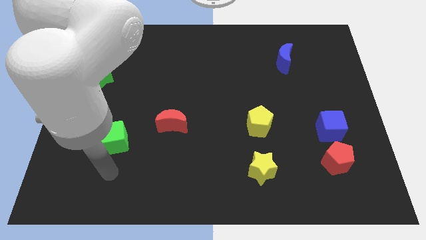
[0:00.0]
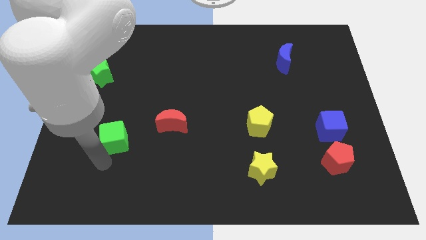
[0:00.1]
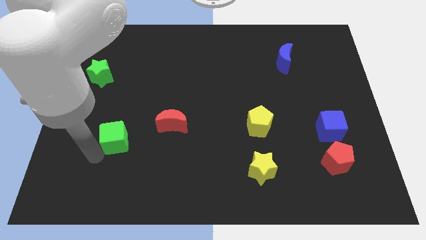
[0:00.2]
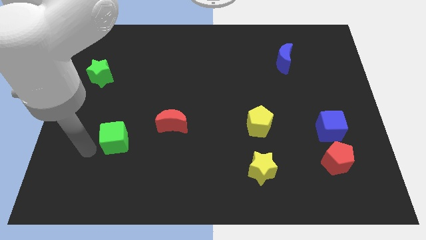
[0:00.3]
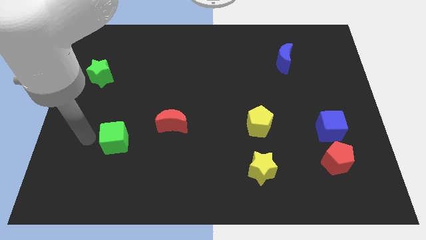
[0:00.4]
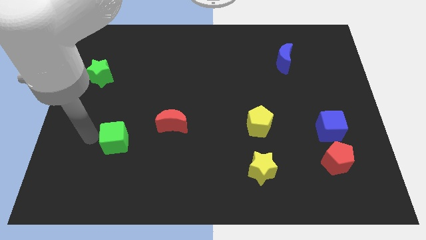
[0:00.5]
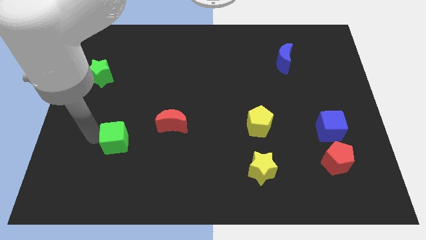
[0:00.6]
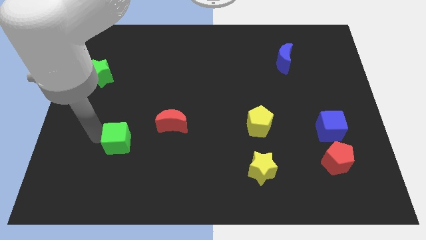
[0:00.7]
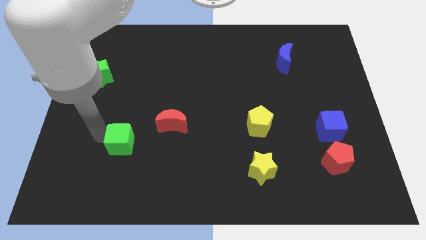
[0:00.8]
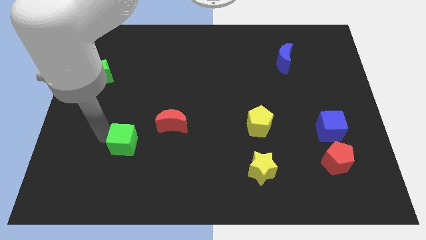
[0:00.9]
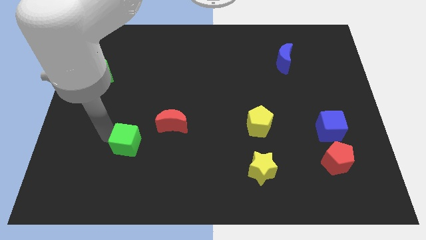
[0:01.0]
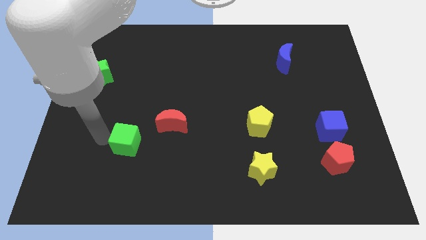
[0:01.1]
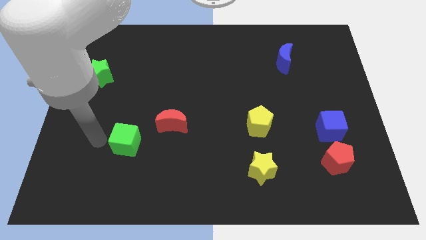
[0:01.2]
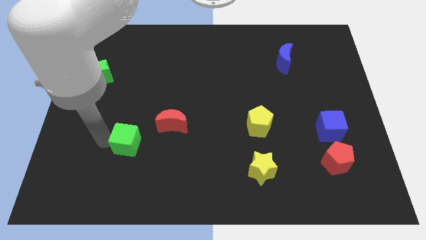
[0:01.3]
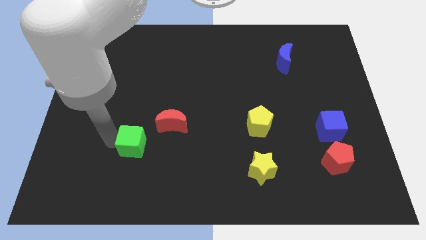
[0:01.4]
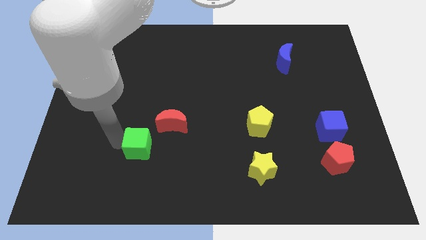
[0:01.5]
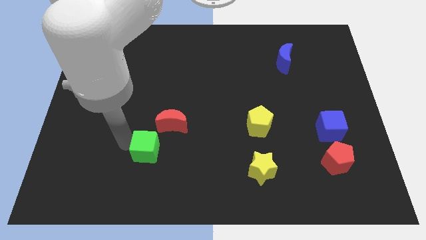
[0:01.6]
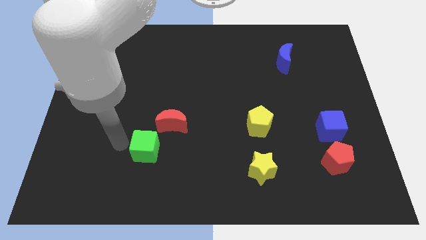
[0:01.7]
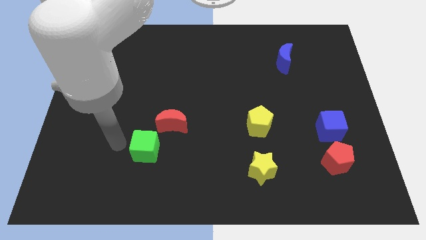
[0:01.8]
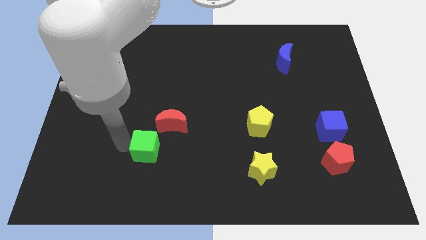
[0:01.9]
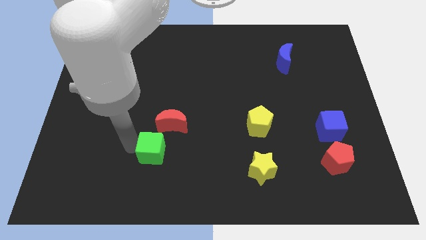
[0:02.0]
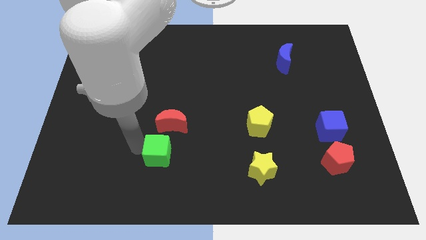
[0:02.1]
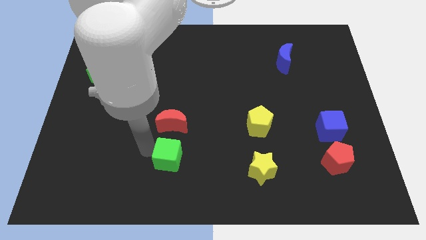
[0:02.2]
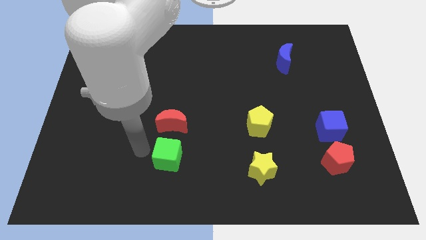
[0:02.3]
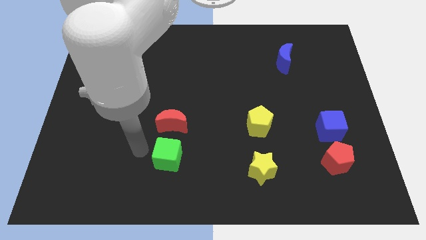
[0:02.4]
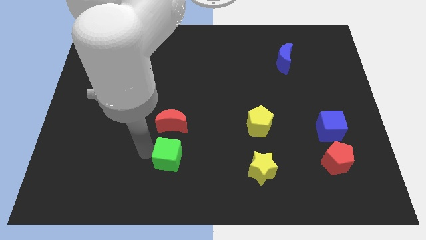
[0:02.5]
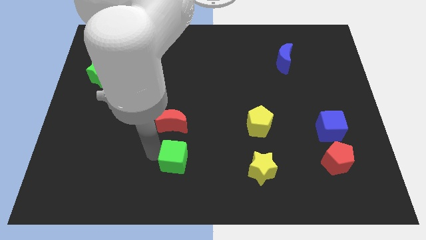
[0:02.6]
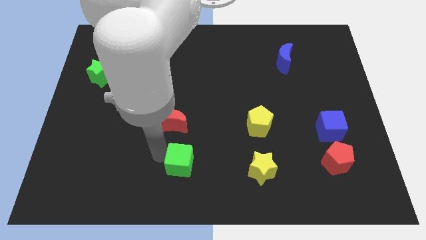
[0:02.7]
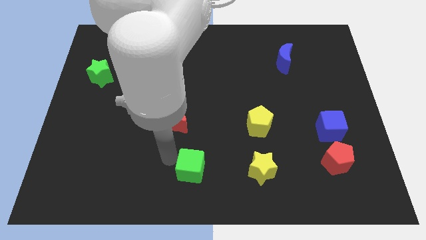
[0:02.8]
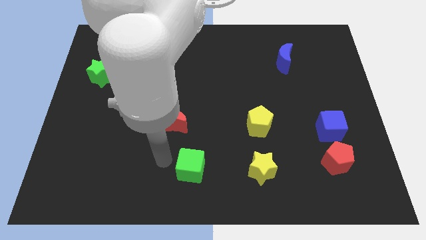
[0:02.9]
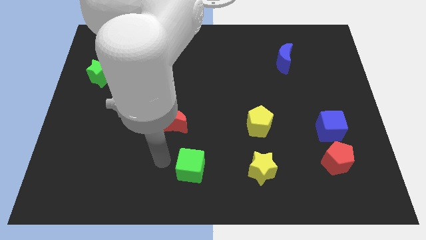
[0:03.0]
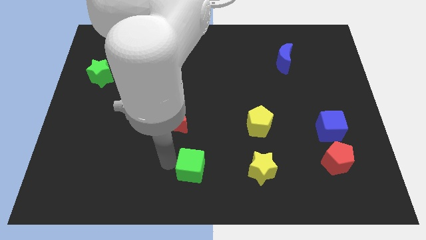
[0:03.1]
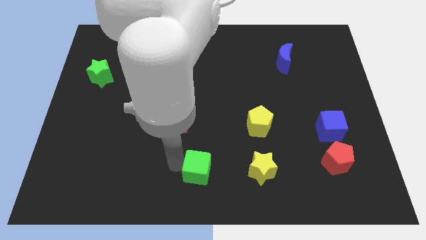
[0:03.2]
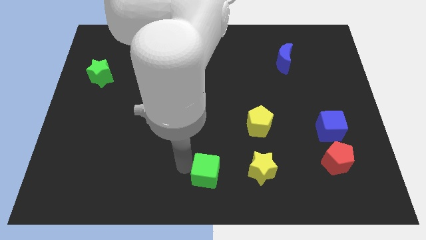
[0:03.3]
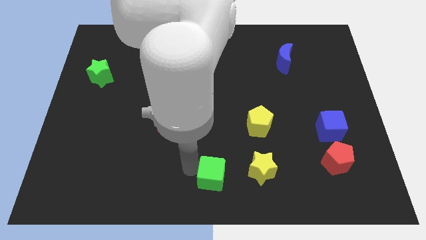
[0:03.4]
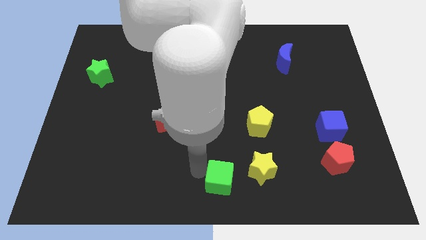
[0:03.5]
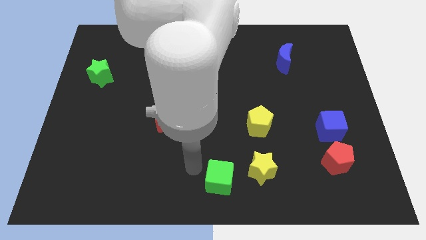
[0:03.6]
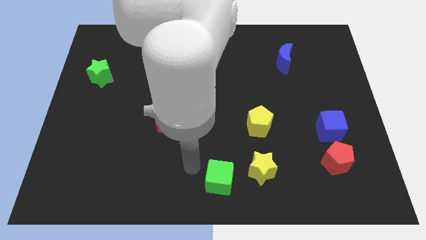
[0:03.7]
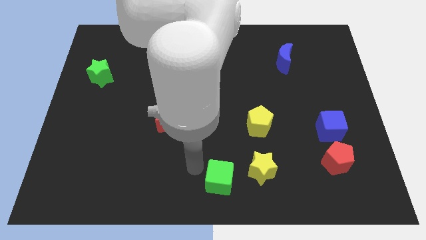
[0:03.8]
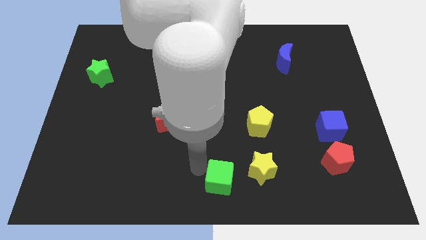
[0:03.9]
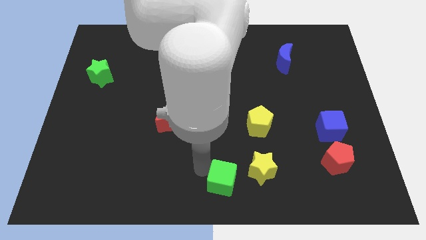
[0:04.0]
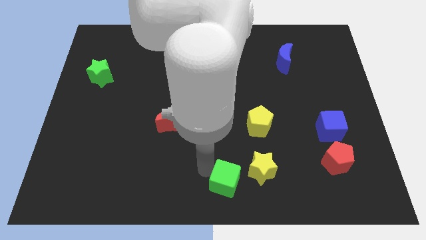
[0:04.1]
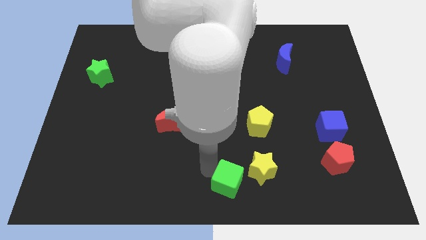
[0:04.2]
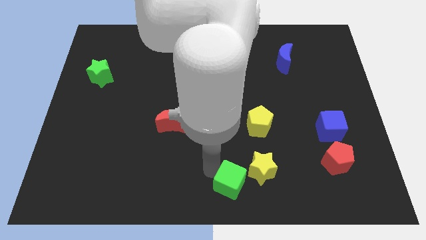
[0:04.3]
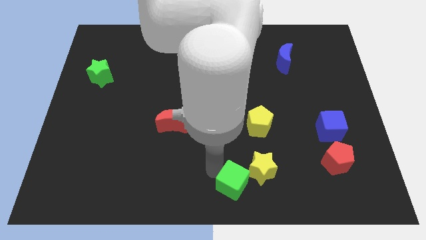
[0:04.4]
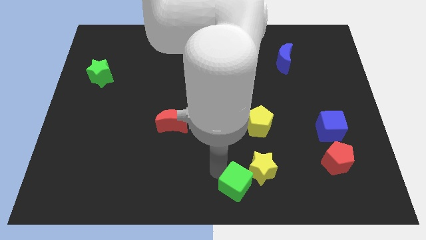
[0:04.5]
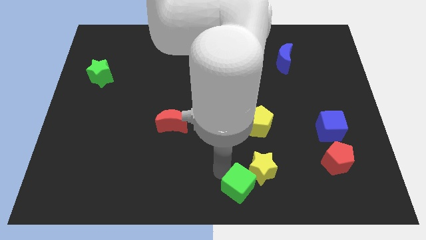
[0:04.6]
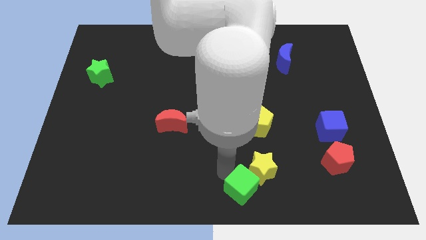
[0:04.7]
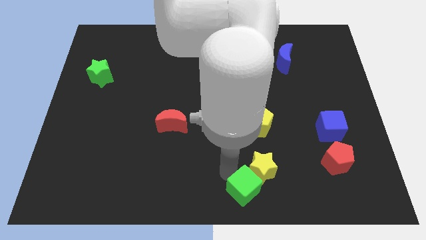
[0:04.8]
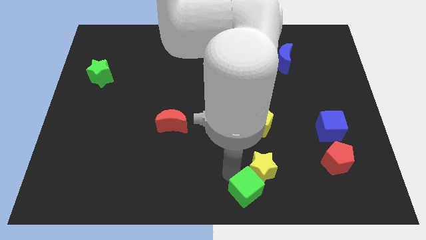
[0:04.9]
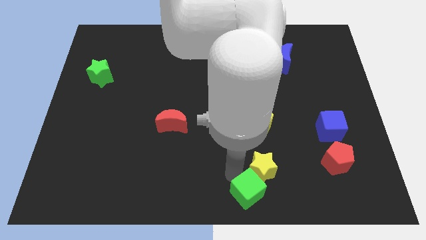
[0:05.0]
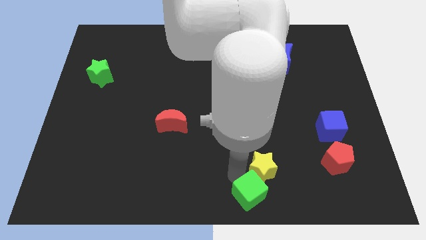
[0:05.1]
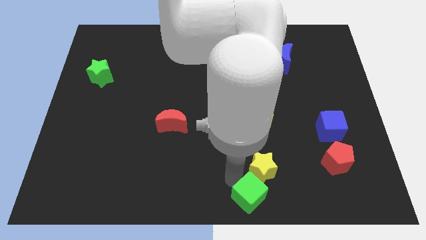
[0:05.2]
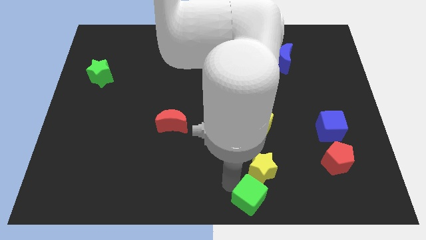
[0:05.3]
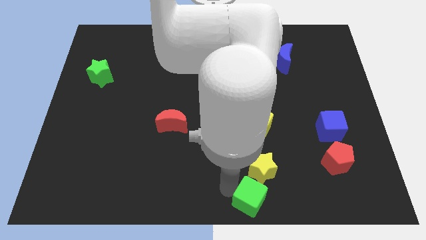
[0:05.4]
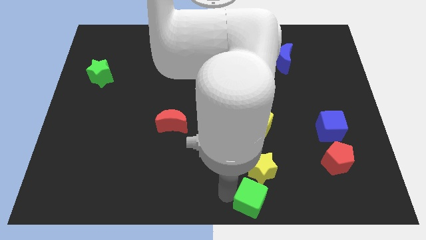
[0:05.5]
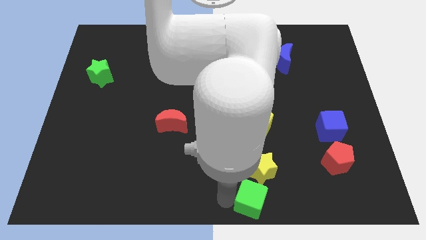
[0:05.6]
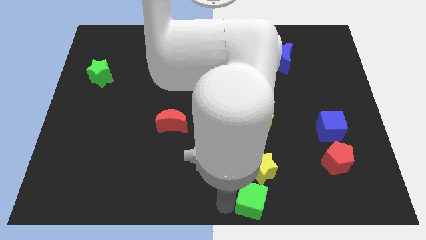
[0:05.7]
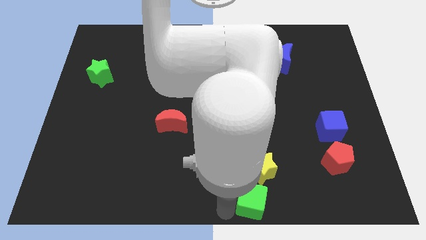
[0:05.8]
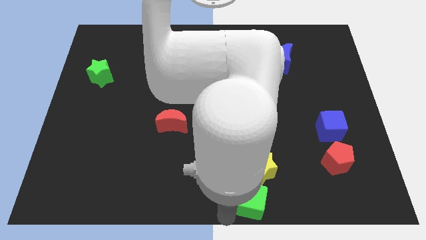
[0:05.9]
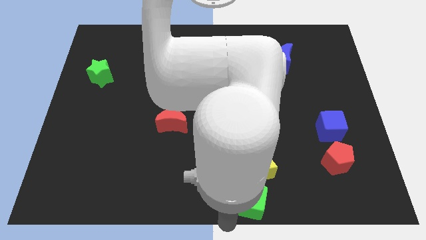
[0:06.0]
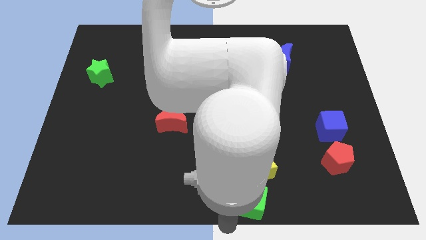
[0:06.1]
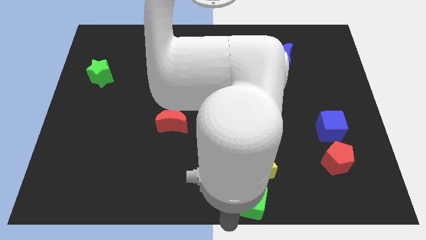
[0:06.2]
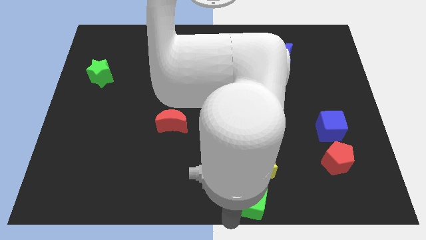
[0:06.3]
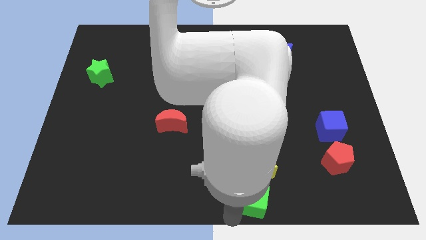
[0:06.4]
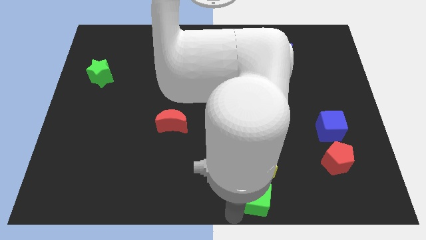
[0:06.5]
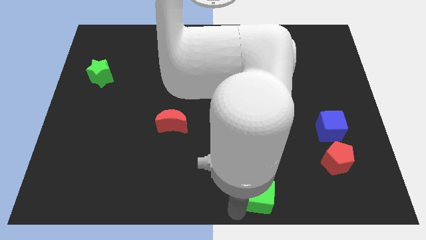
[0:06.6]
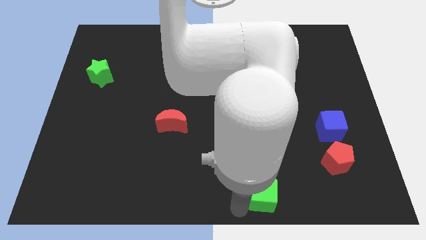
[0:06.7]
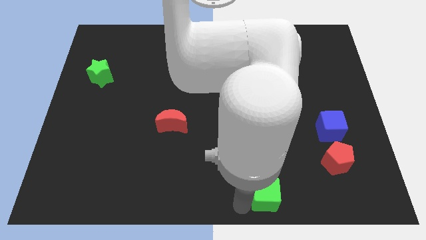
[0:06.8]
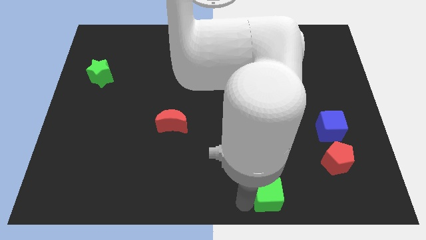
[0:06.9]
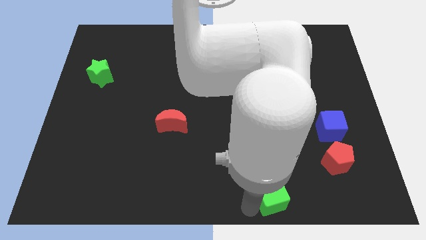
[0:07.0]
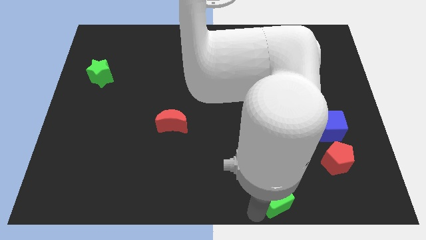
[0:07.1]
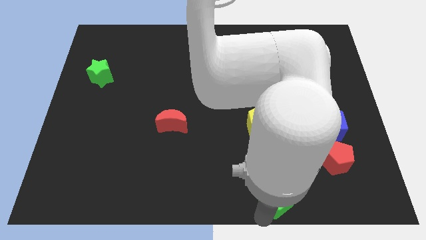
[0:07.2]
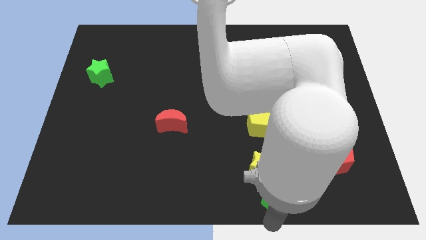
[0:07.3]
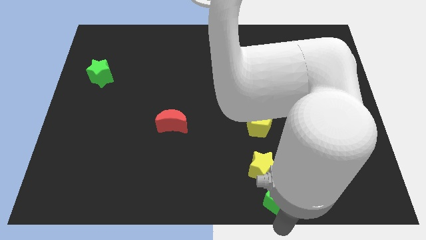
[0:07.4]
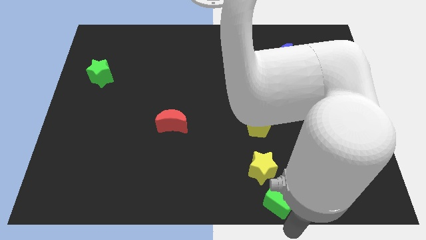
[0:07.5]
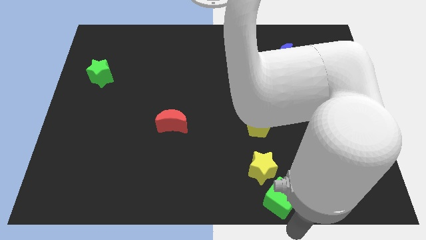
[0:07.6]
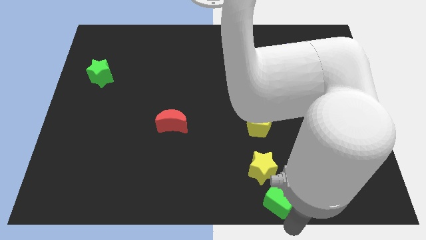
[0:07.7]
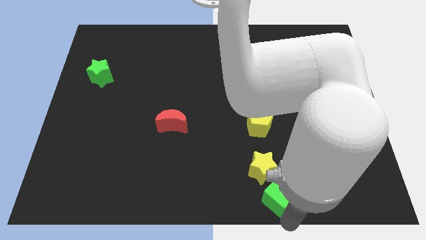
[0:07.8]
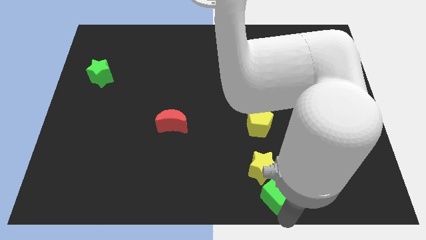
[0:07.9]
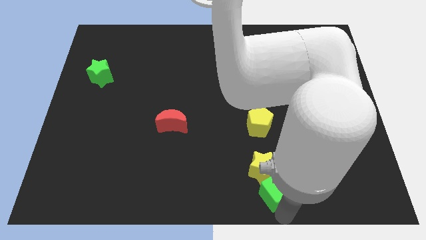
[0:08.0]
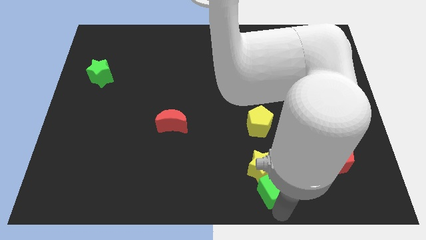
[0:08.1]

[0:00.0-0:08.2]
move the green cube to the bottom of the yellow pentagon
